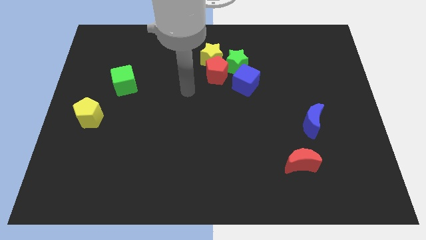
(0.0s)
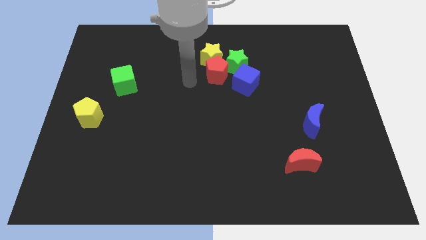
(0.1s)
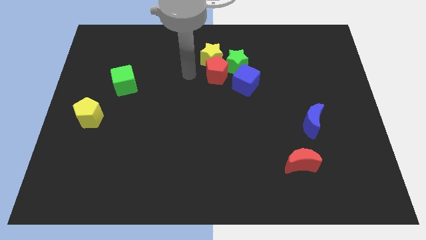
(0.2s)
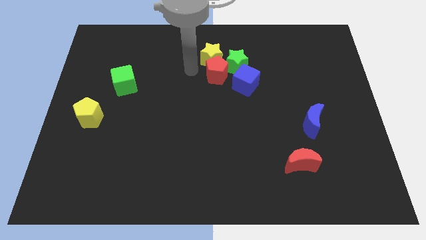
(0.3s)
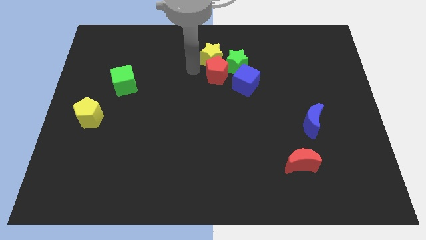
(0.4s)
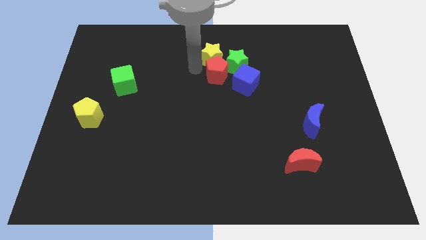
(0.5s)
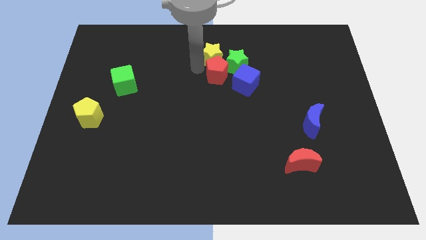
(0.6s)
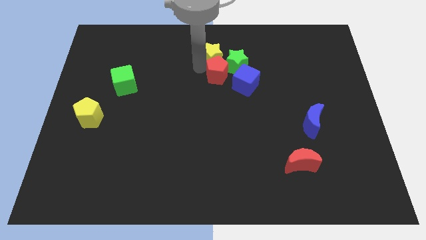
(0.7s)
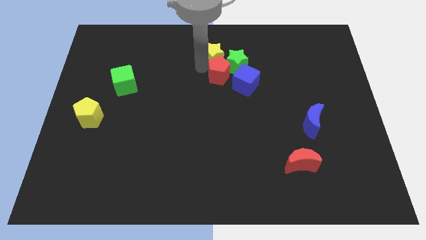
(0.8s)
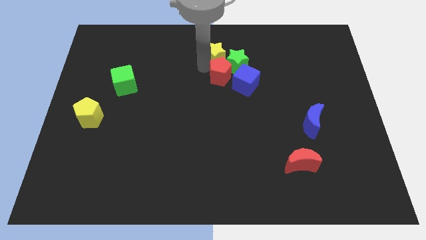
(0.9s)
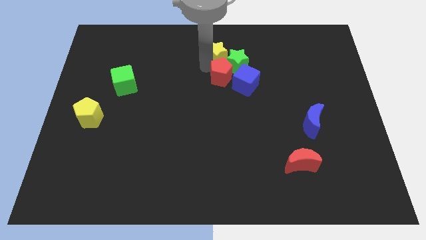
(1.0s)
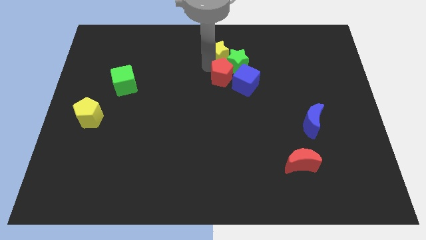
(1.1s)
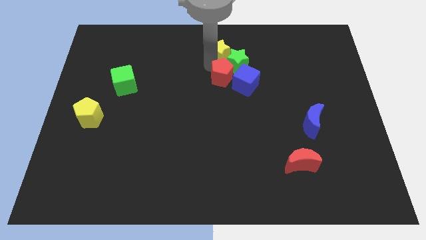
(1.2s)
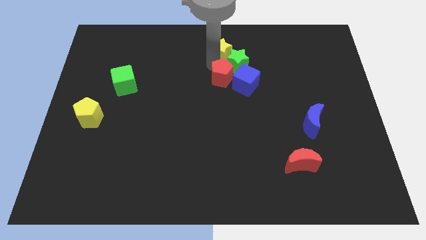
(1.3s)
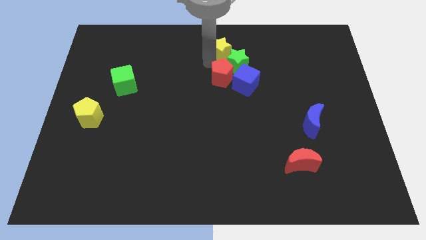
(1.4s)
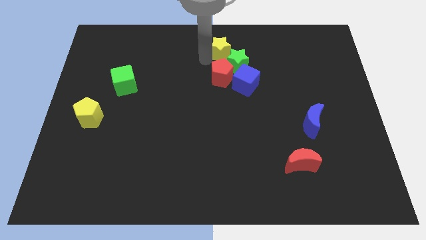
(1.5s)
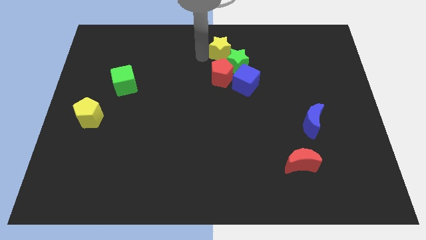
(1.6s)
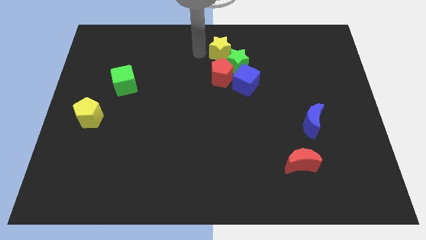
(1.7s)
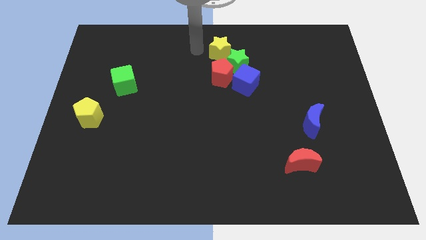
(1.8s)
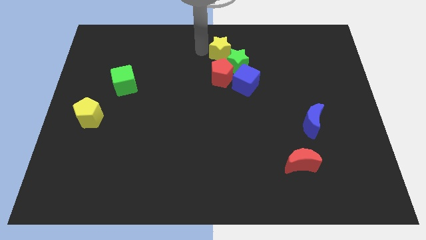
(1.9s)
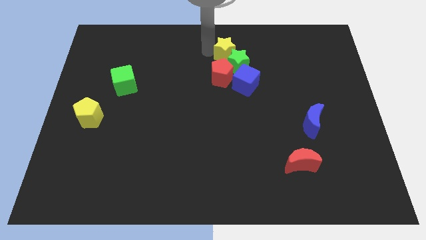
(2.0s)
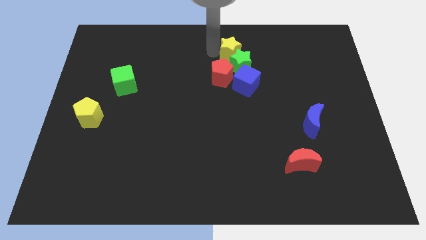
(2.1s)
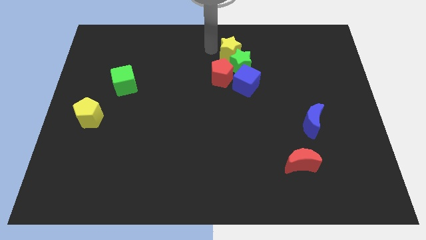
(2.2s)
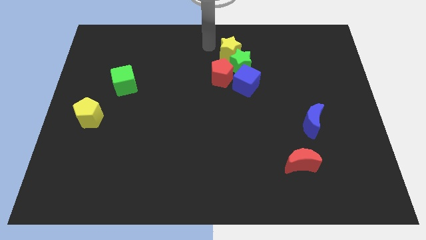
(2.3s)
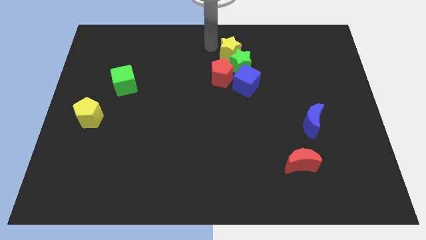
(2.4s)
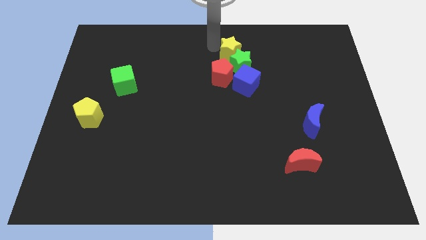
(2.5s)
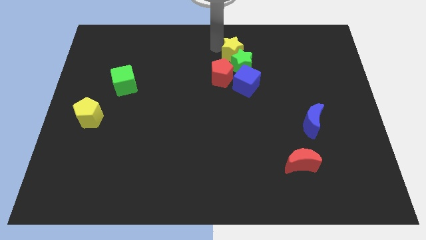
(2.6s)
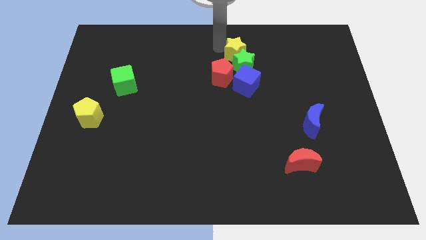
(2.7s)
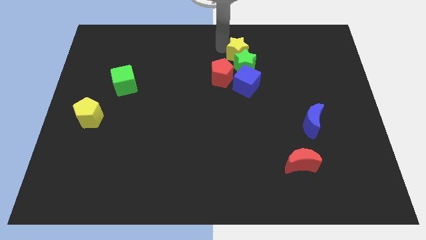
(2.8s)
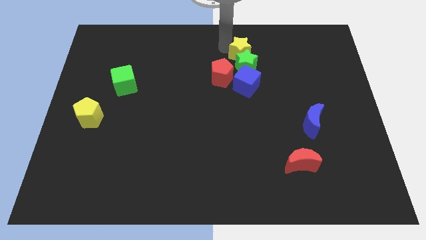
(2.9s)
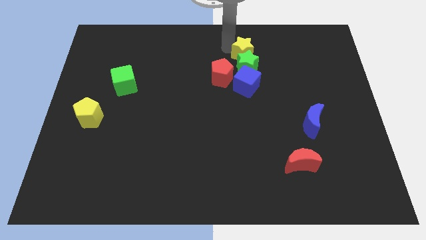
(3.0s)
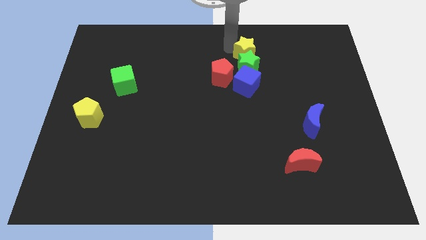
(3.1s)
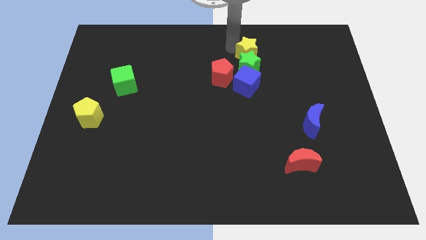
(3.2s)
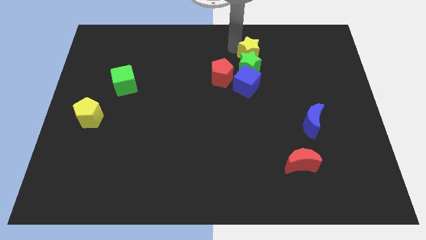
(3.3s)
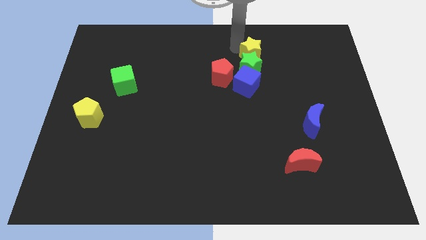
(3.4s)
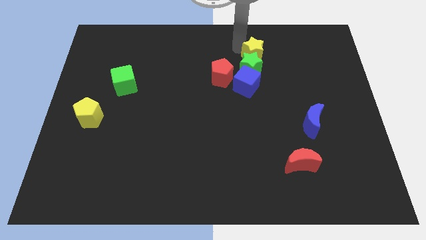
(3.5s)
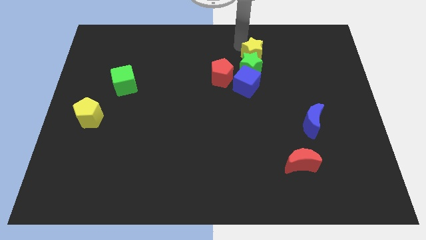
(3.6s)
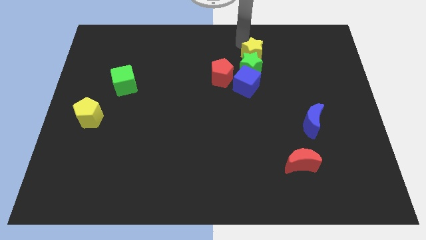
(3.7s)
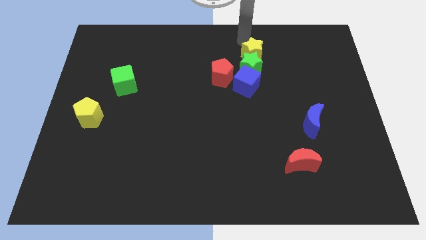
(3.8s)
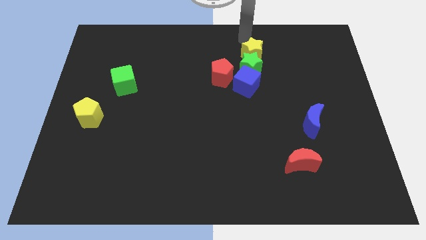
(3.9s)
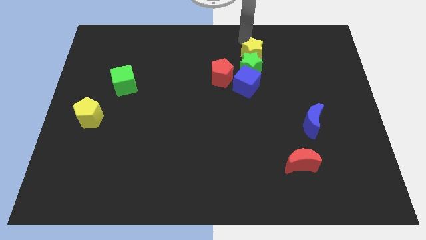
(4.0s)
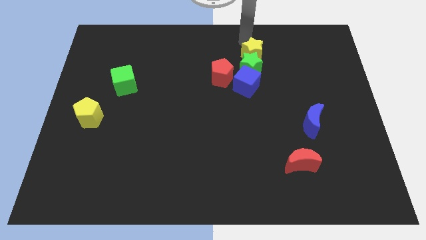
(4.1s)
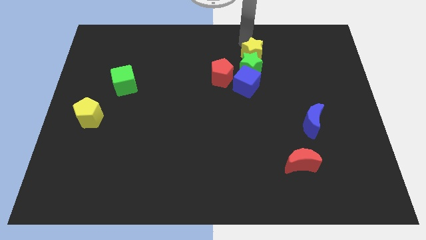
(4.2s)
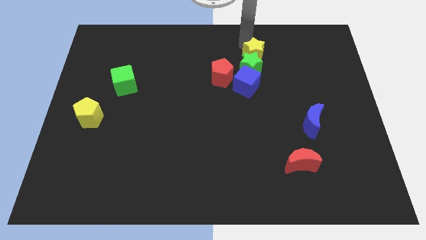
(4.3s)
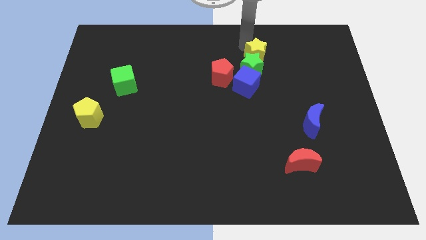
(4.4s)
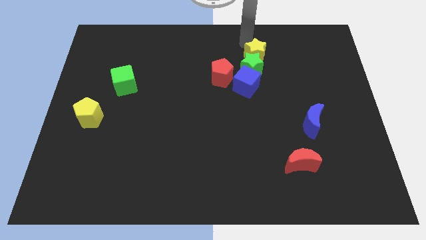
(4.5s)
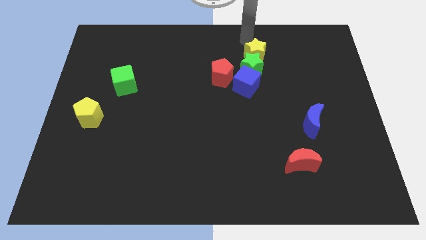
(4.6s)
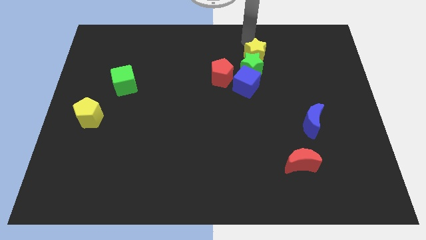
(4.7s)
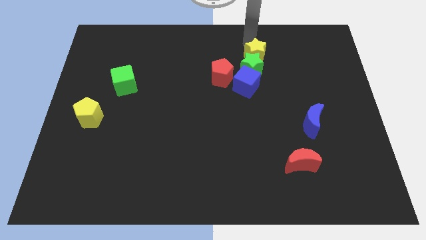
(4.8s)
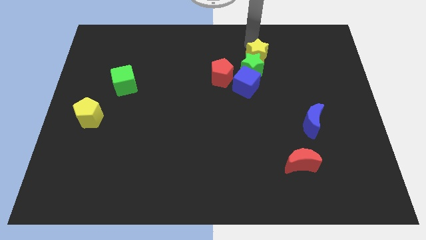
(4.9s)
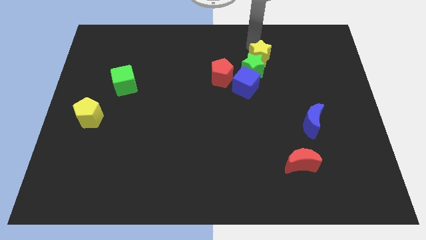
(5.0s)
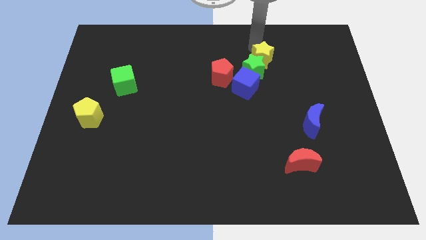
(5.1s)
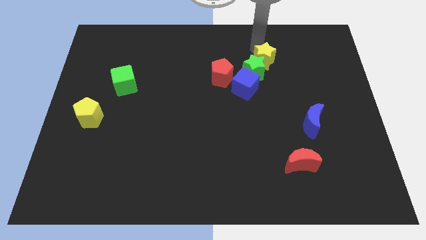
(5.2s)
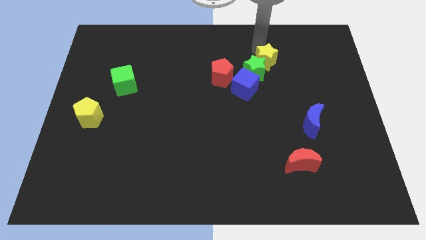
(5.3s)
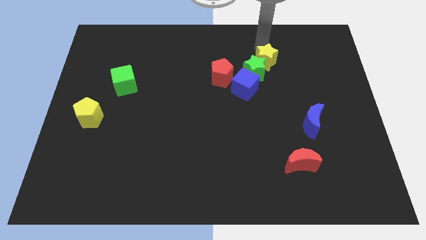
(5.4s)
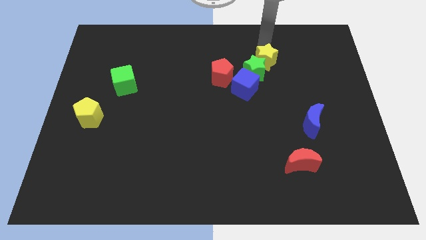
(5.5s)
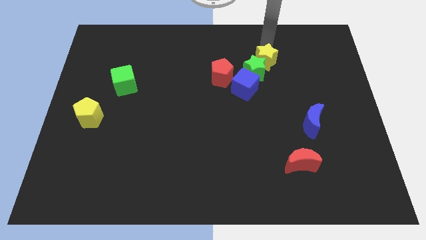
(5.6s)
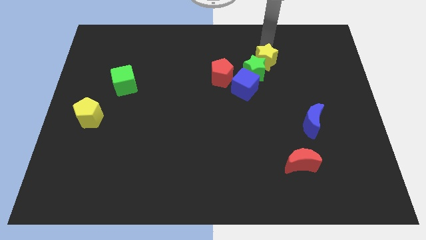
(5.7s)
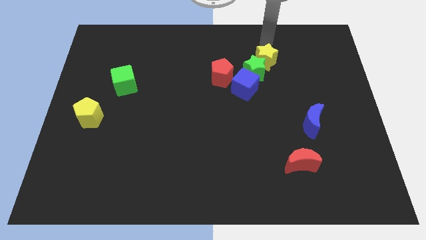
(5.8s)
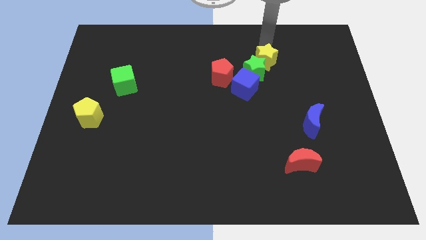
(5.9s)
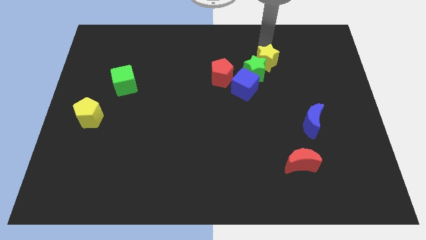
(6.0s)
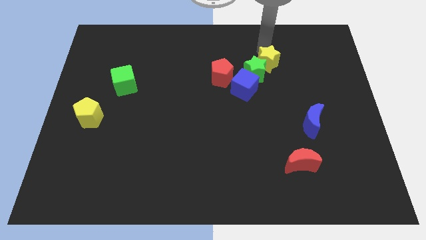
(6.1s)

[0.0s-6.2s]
push the yellow star a little bit diagonally downwards and to the right

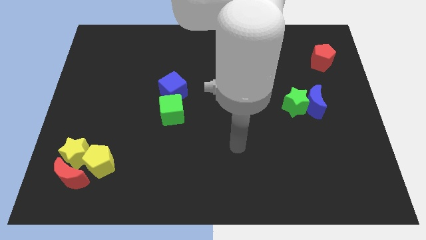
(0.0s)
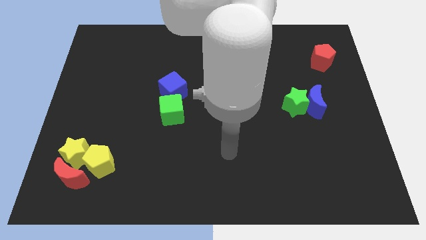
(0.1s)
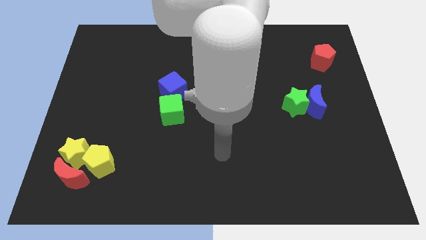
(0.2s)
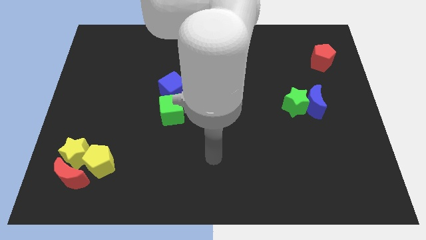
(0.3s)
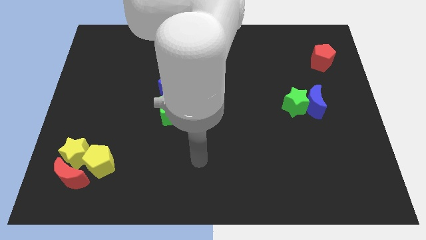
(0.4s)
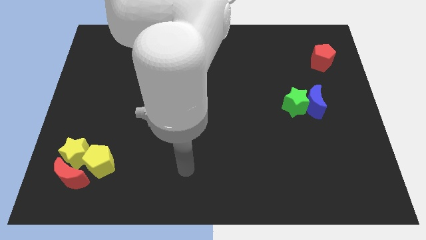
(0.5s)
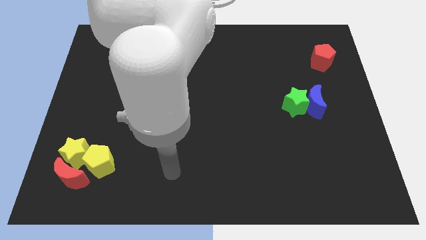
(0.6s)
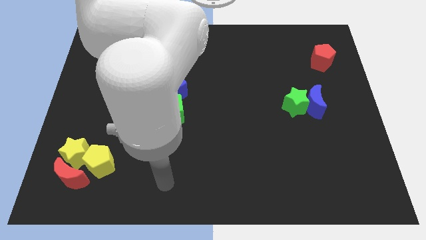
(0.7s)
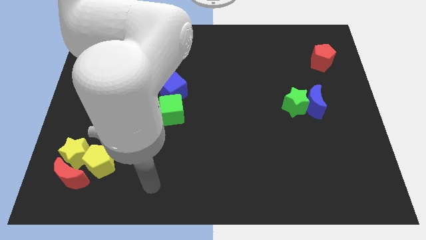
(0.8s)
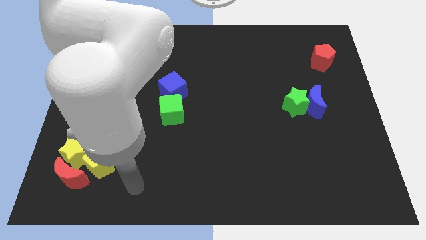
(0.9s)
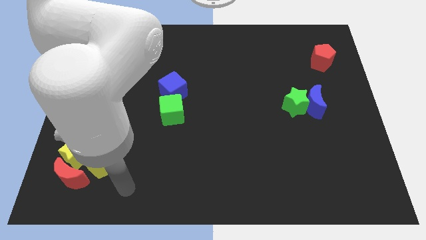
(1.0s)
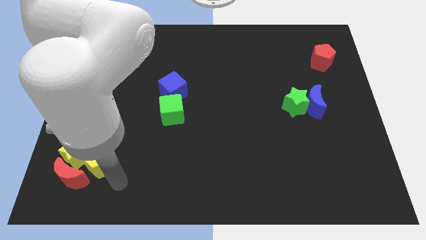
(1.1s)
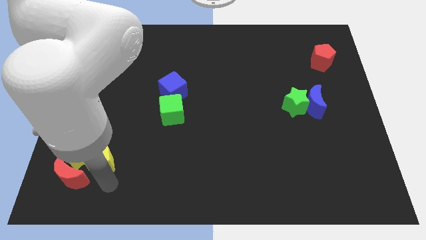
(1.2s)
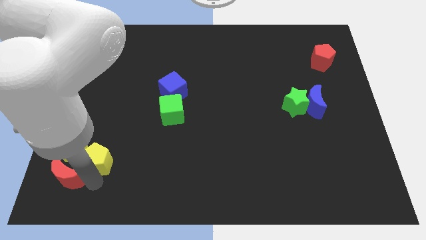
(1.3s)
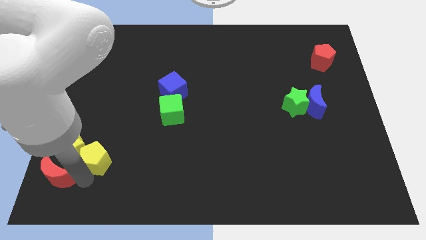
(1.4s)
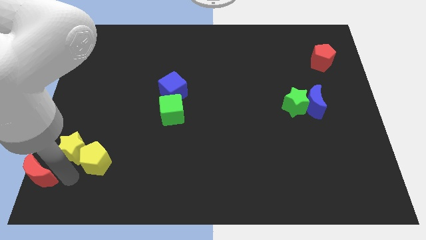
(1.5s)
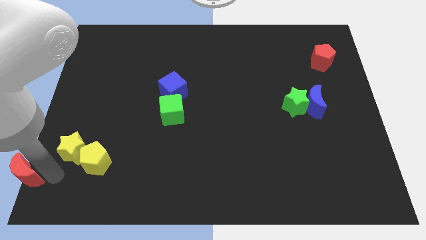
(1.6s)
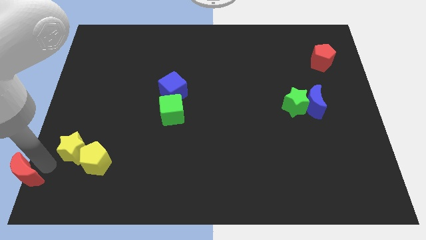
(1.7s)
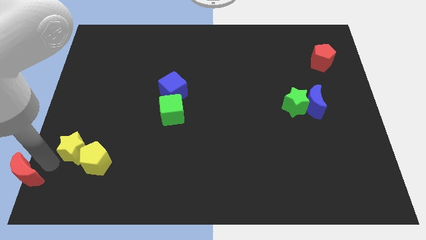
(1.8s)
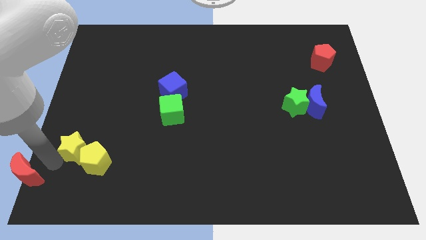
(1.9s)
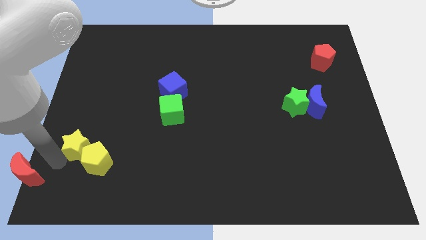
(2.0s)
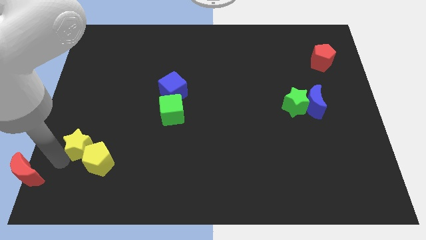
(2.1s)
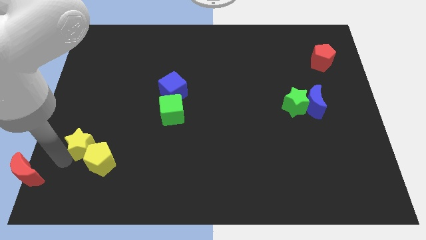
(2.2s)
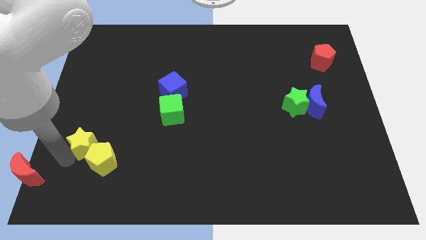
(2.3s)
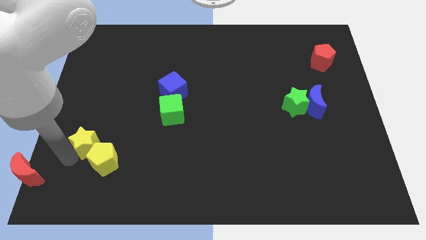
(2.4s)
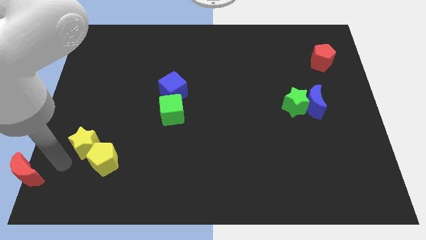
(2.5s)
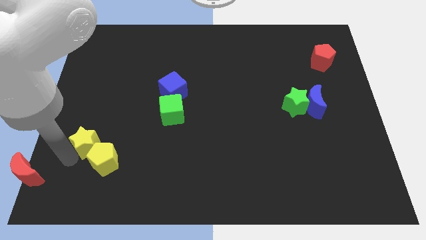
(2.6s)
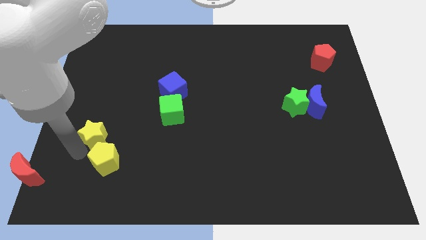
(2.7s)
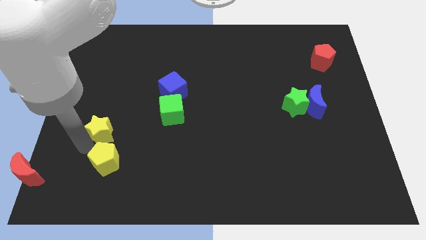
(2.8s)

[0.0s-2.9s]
slide the yellow star a little up and to the right
